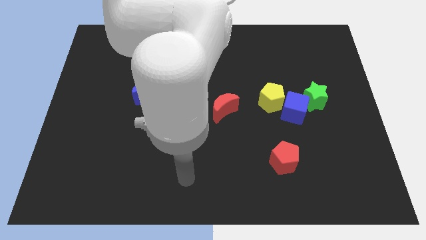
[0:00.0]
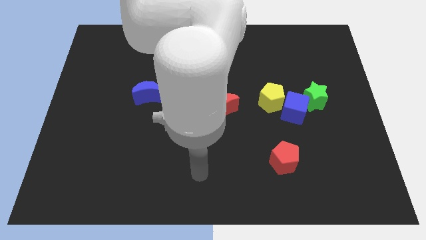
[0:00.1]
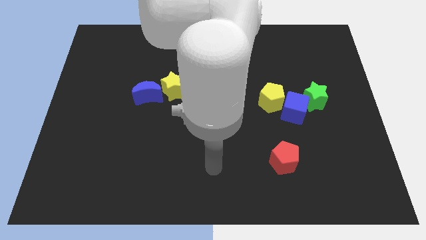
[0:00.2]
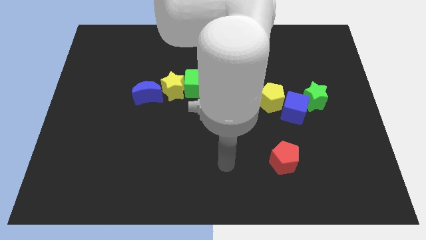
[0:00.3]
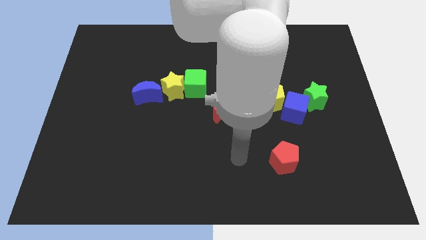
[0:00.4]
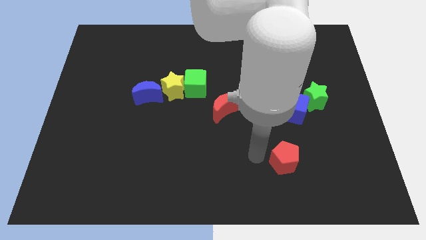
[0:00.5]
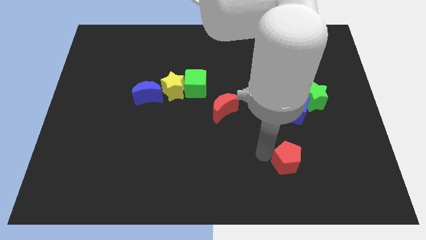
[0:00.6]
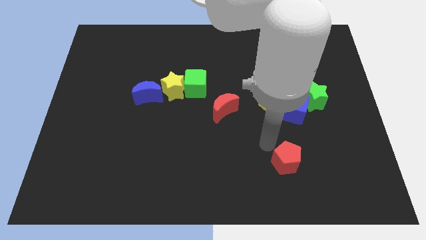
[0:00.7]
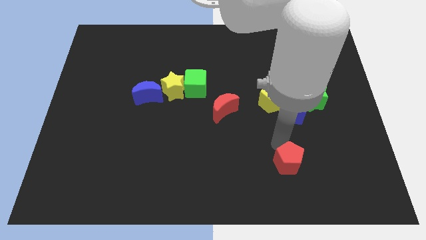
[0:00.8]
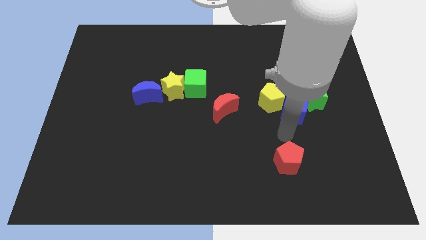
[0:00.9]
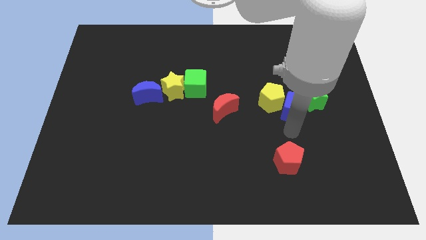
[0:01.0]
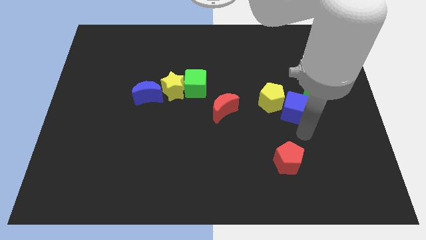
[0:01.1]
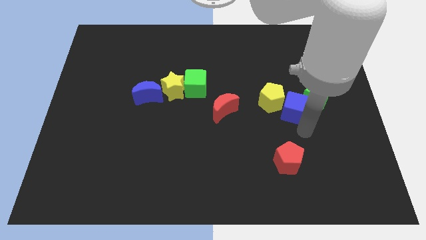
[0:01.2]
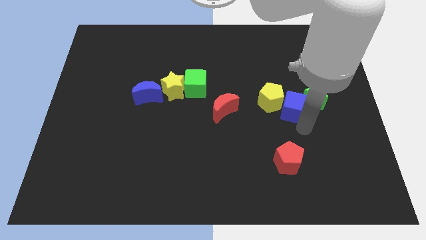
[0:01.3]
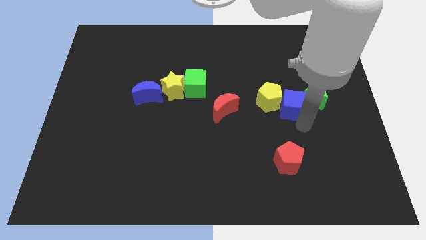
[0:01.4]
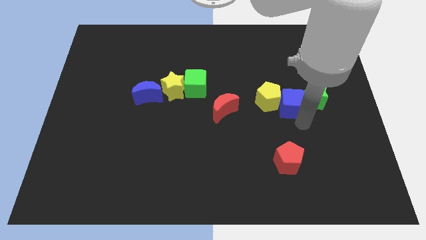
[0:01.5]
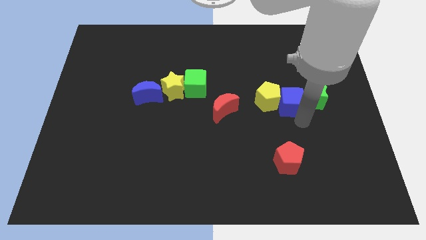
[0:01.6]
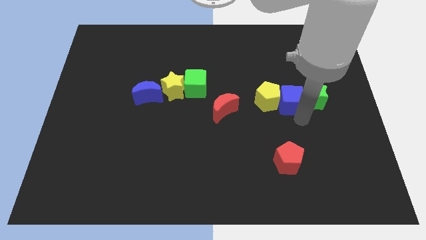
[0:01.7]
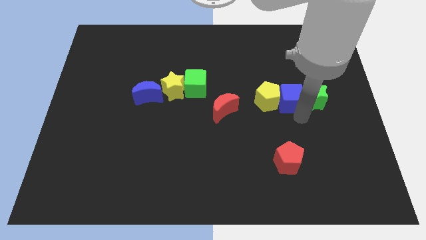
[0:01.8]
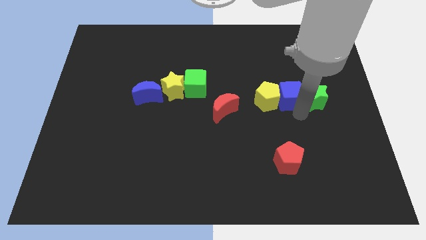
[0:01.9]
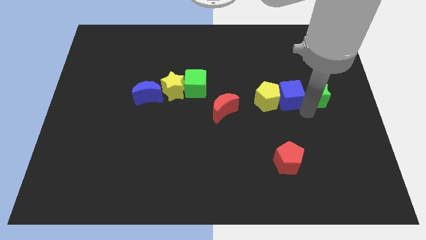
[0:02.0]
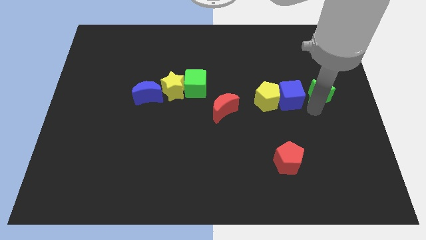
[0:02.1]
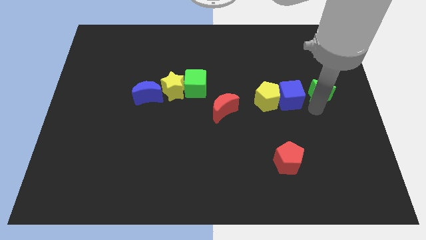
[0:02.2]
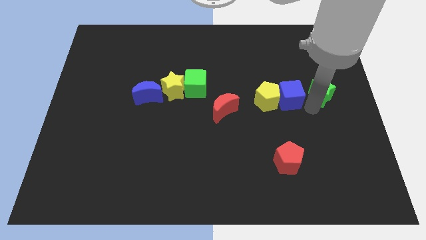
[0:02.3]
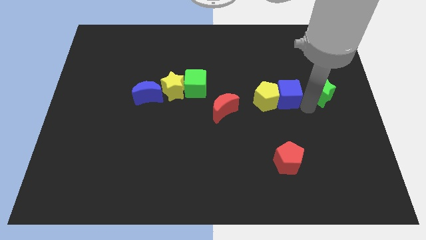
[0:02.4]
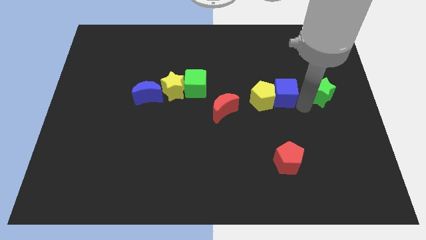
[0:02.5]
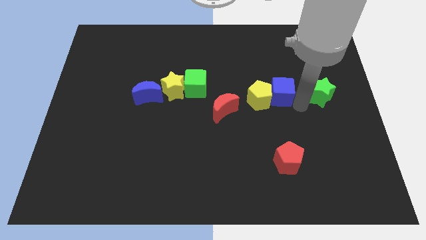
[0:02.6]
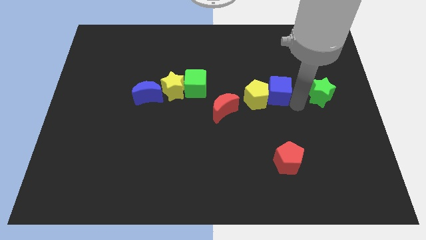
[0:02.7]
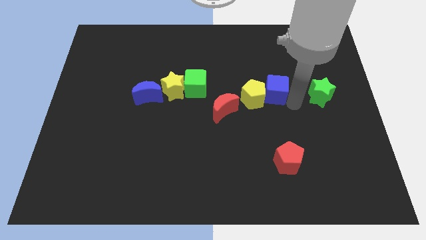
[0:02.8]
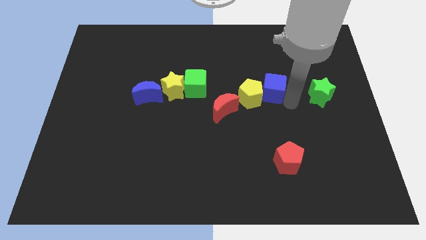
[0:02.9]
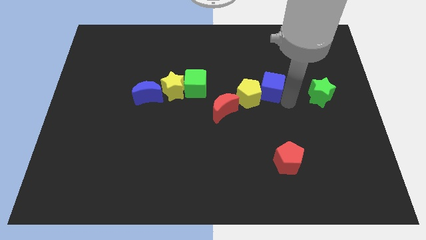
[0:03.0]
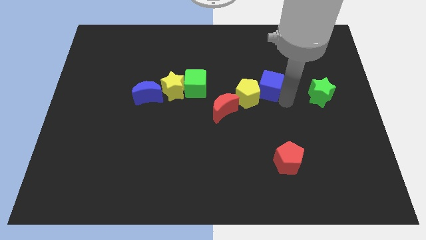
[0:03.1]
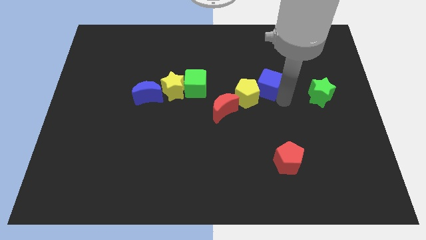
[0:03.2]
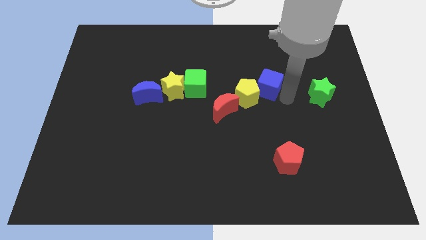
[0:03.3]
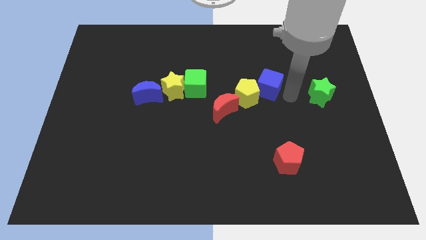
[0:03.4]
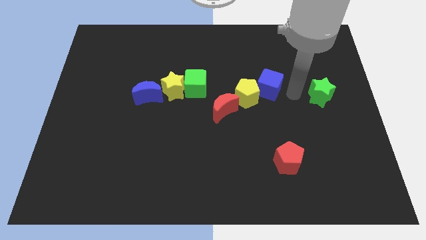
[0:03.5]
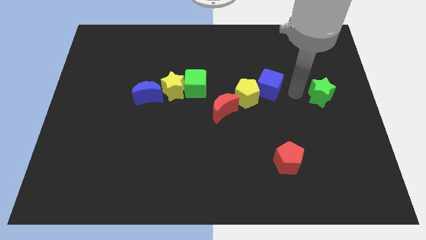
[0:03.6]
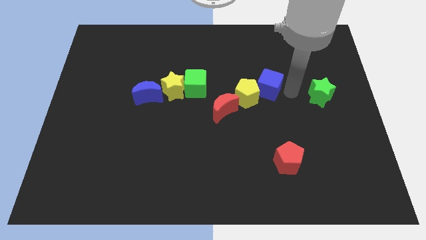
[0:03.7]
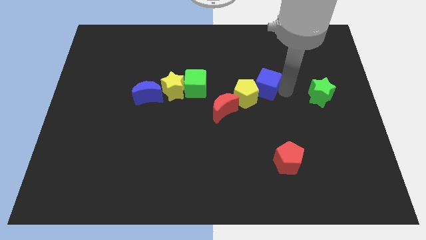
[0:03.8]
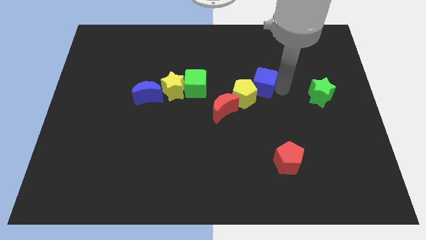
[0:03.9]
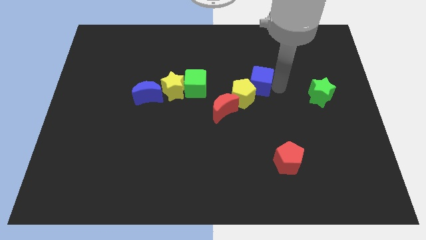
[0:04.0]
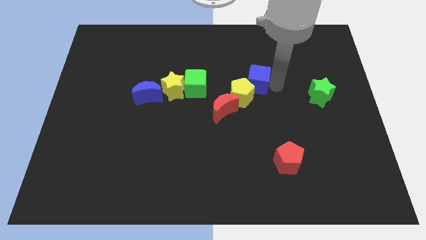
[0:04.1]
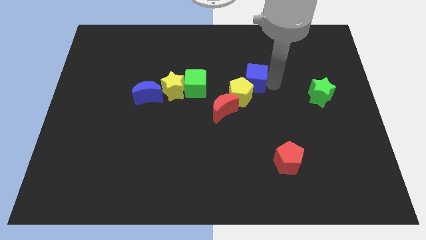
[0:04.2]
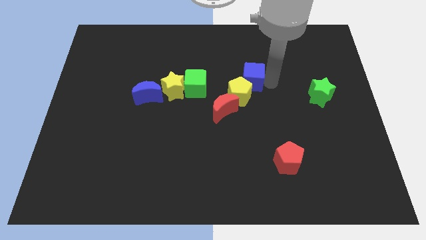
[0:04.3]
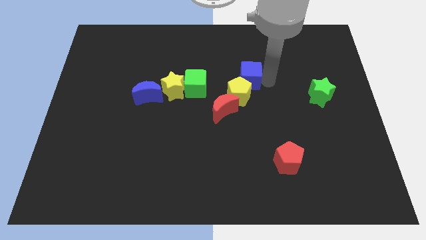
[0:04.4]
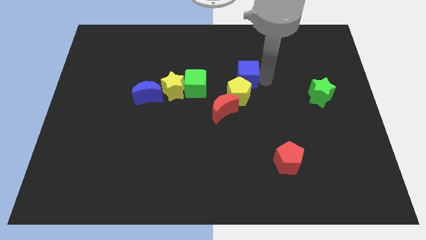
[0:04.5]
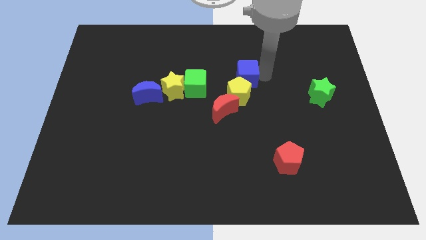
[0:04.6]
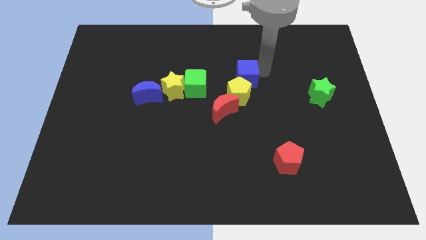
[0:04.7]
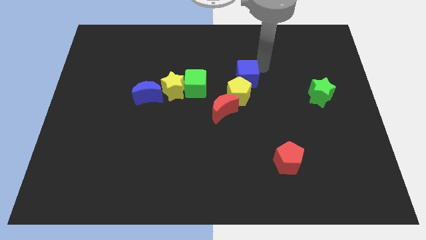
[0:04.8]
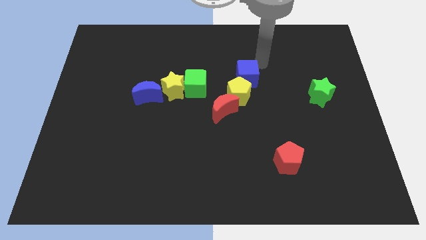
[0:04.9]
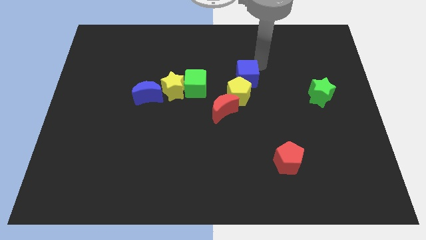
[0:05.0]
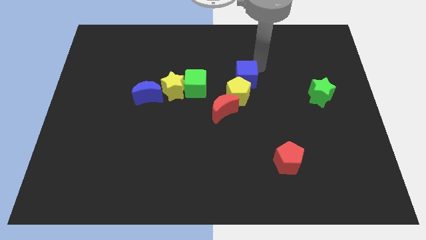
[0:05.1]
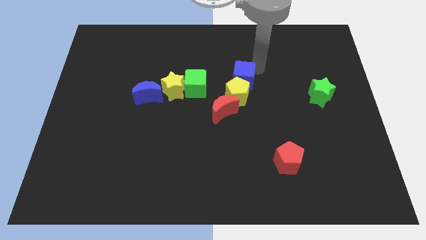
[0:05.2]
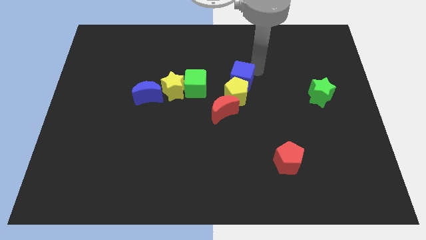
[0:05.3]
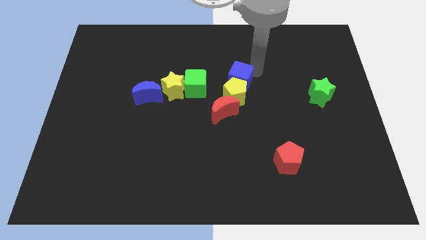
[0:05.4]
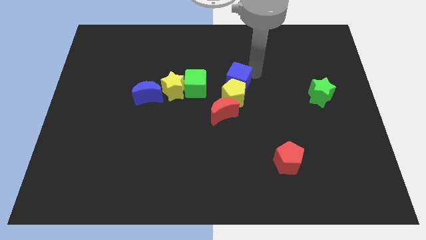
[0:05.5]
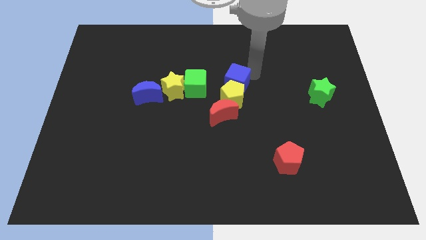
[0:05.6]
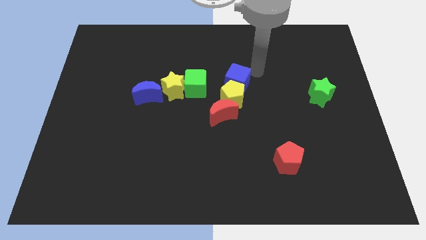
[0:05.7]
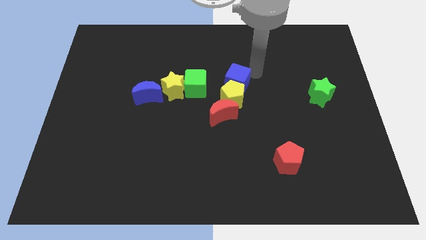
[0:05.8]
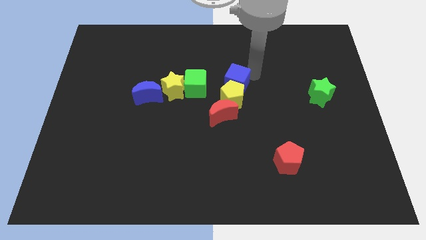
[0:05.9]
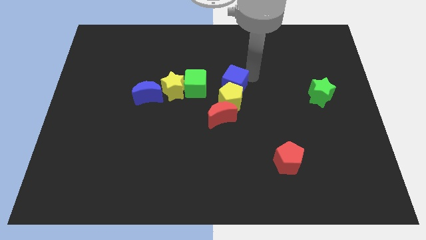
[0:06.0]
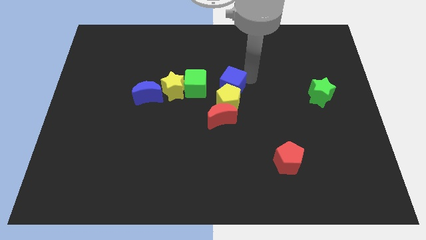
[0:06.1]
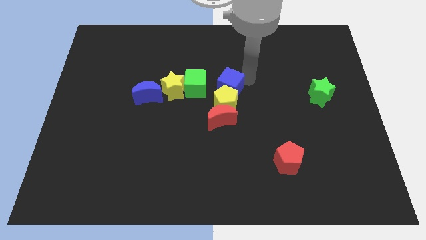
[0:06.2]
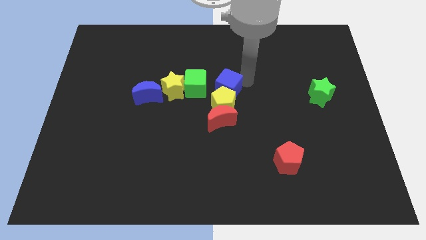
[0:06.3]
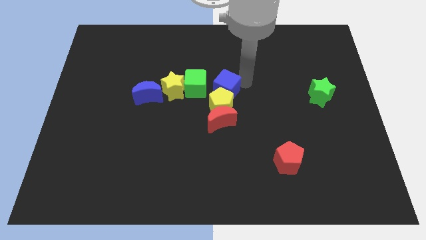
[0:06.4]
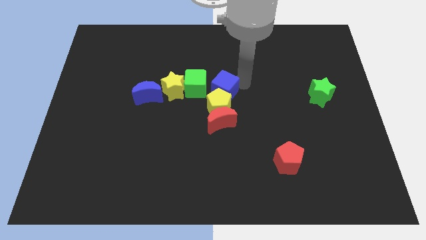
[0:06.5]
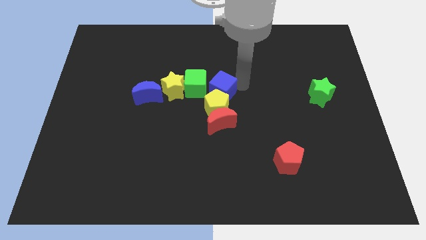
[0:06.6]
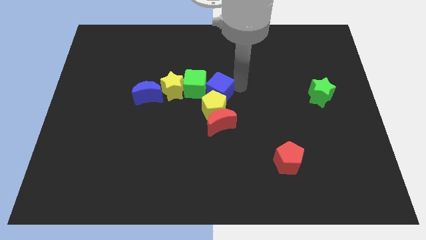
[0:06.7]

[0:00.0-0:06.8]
push the blue cube to the green cube
